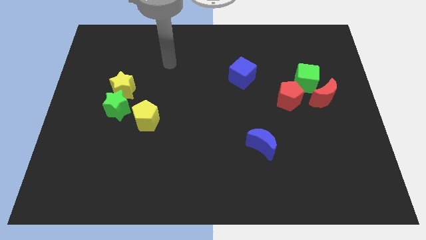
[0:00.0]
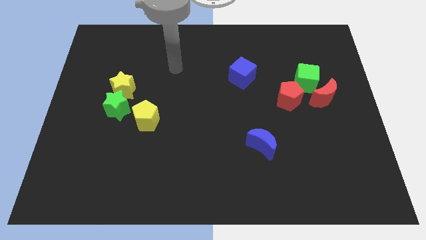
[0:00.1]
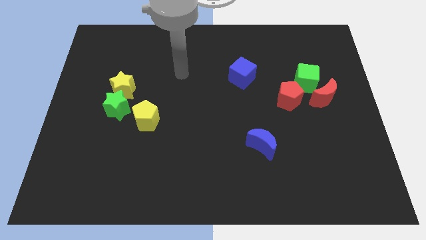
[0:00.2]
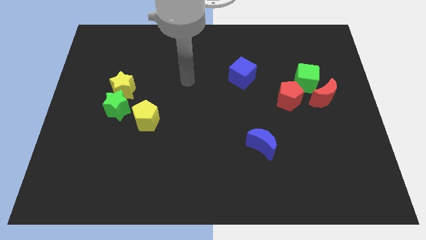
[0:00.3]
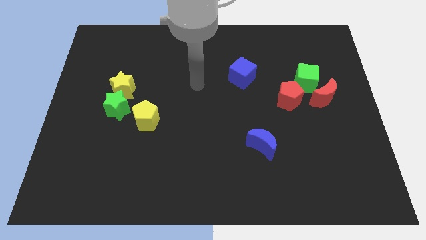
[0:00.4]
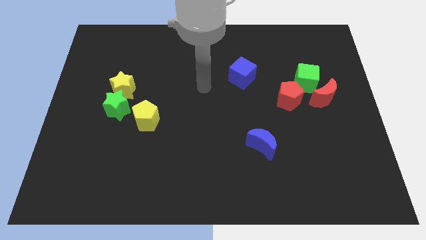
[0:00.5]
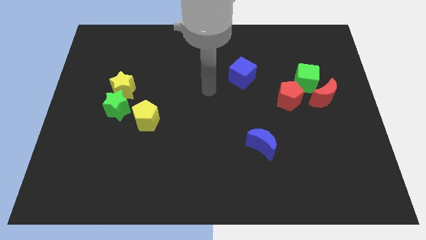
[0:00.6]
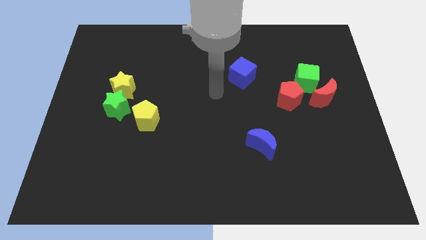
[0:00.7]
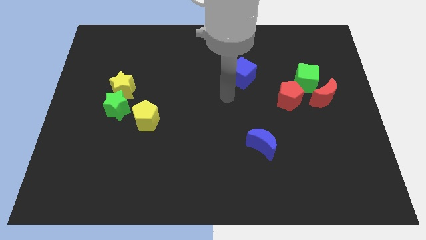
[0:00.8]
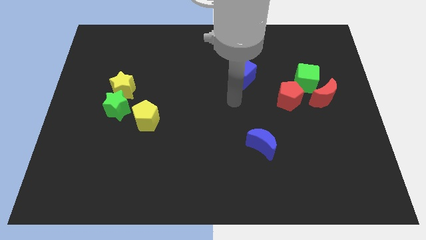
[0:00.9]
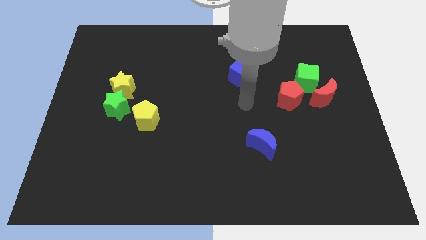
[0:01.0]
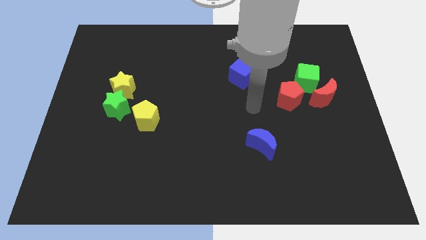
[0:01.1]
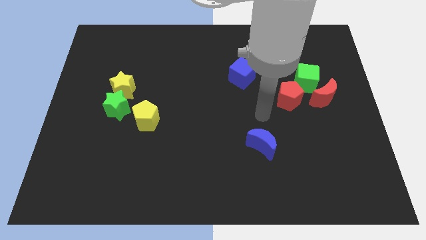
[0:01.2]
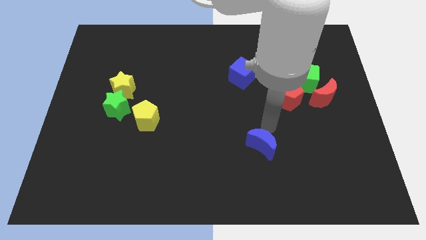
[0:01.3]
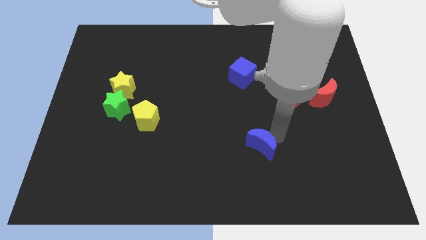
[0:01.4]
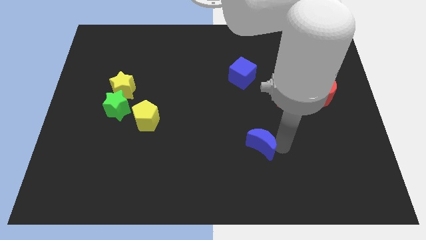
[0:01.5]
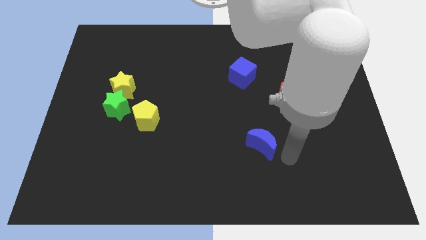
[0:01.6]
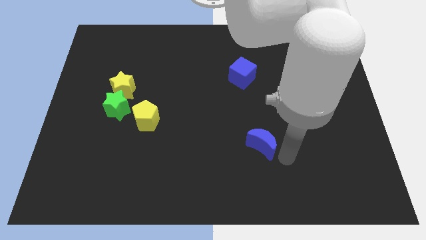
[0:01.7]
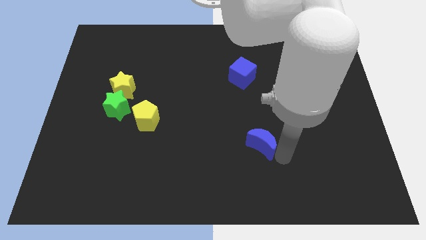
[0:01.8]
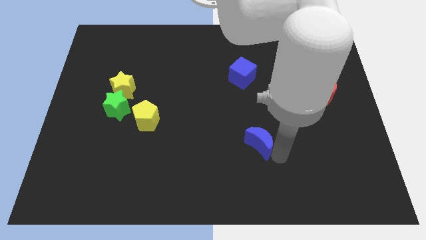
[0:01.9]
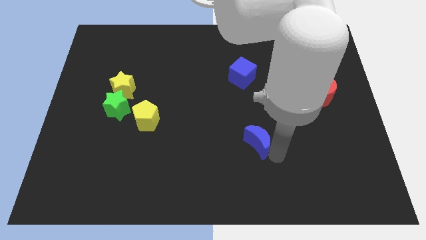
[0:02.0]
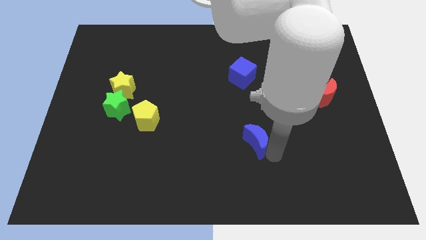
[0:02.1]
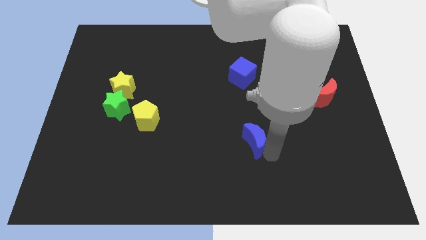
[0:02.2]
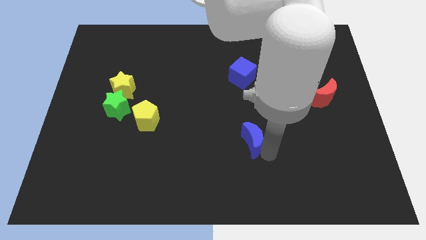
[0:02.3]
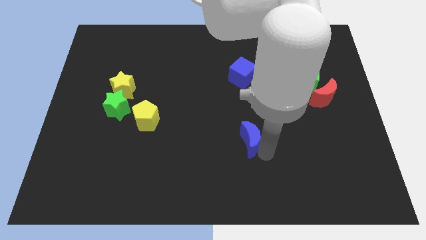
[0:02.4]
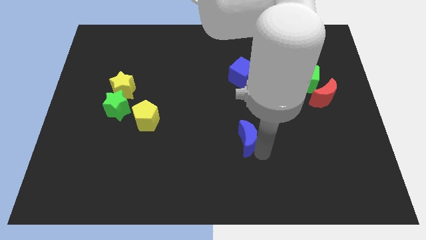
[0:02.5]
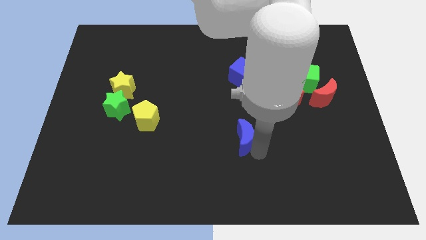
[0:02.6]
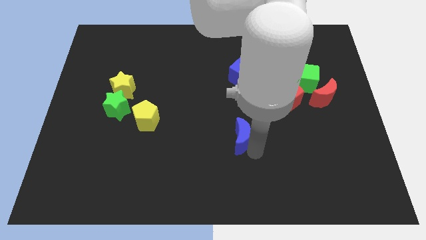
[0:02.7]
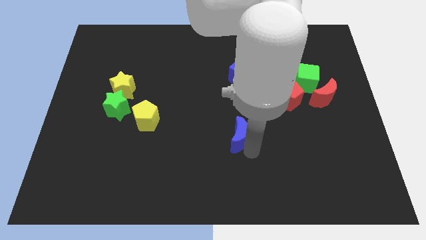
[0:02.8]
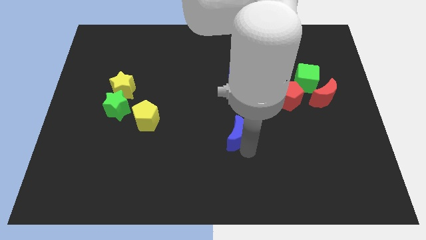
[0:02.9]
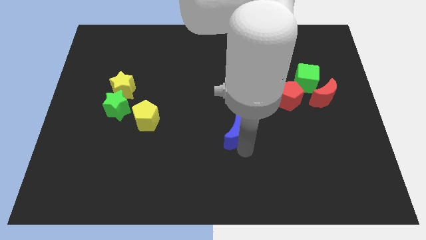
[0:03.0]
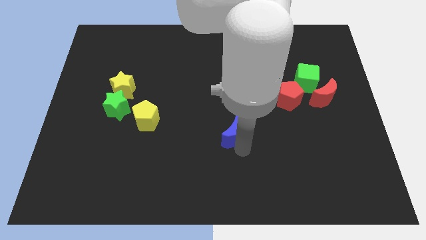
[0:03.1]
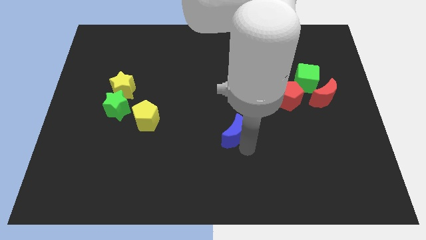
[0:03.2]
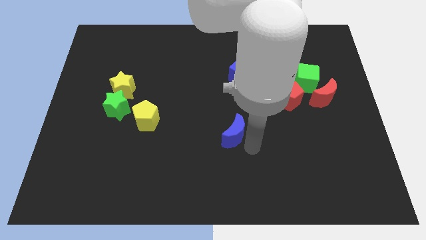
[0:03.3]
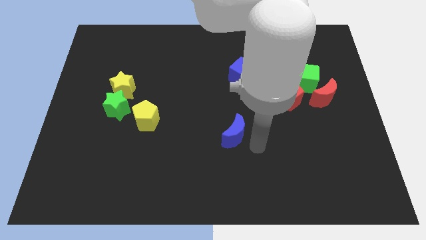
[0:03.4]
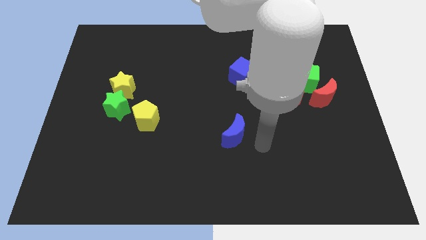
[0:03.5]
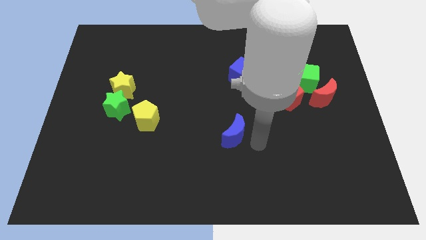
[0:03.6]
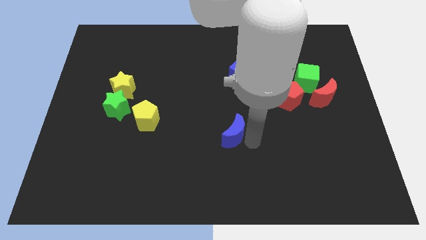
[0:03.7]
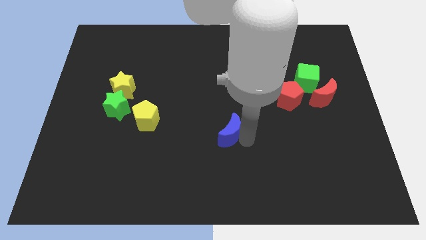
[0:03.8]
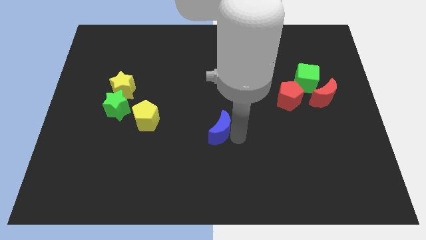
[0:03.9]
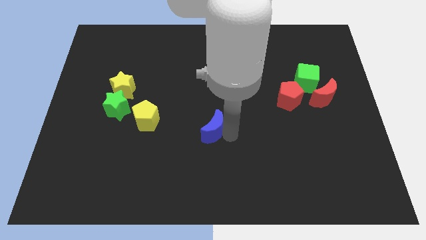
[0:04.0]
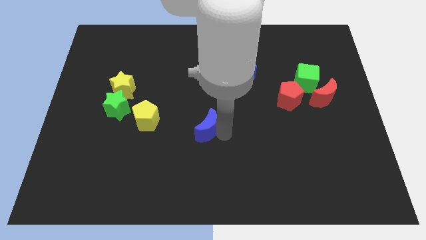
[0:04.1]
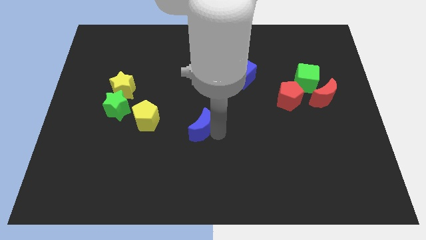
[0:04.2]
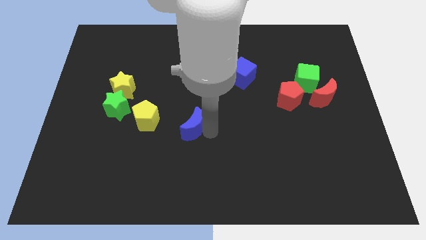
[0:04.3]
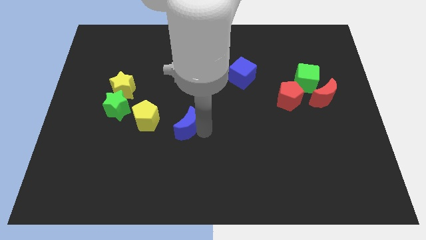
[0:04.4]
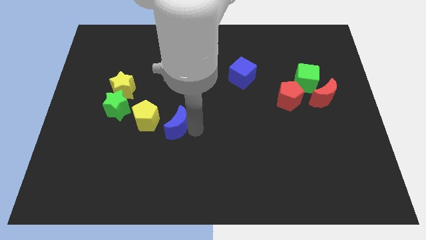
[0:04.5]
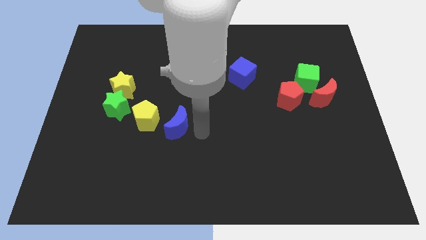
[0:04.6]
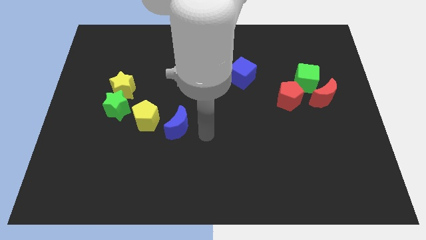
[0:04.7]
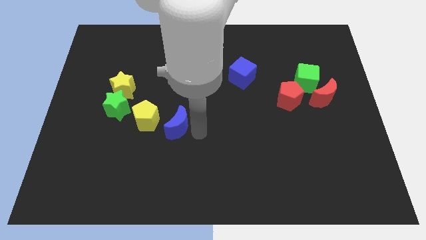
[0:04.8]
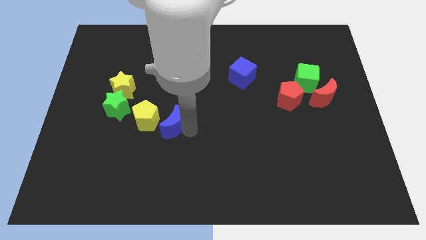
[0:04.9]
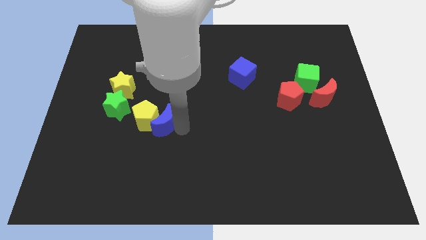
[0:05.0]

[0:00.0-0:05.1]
move the blue moon towards the yellow pentagon

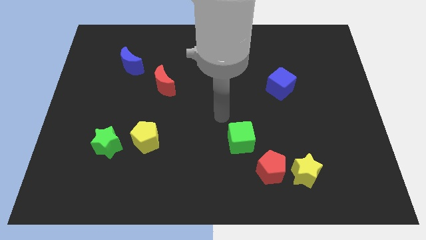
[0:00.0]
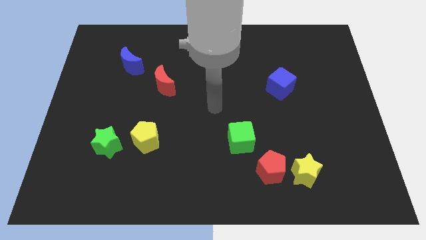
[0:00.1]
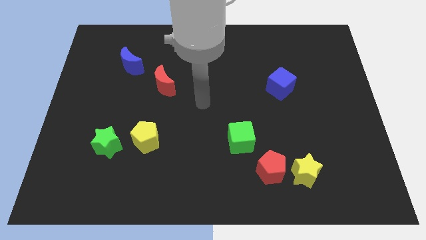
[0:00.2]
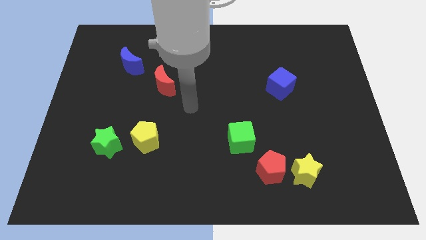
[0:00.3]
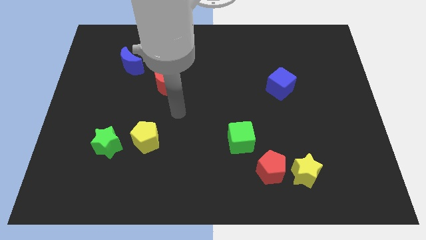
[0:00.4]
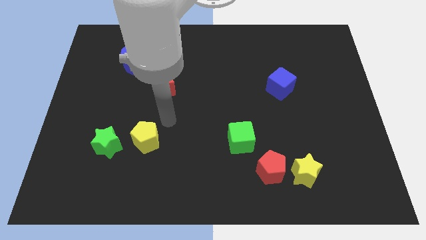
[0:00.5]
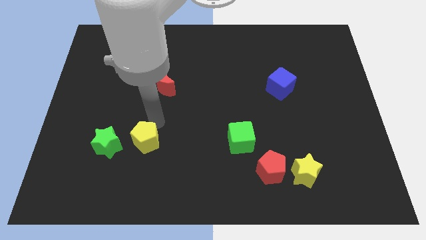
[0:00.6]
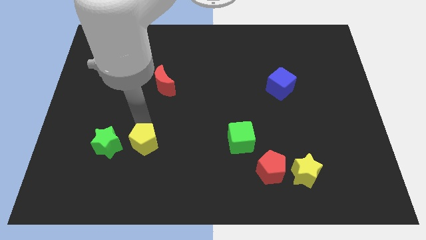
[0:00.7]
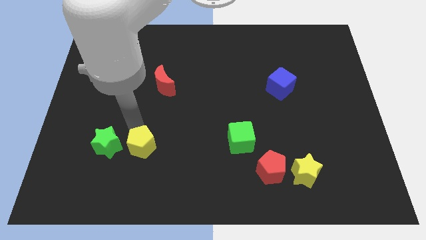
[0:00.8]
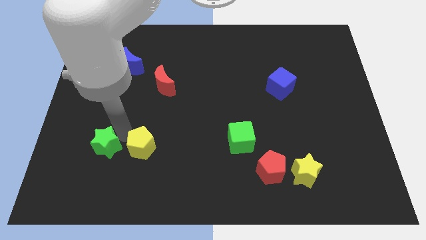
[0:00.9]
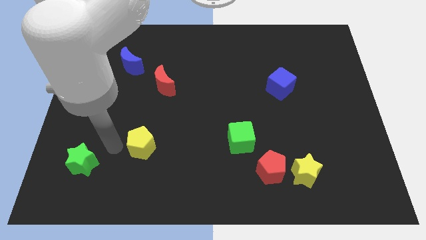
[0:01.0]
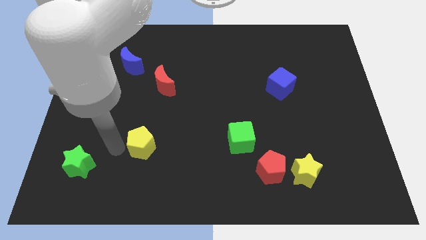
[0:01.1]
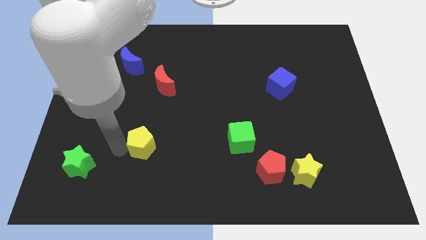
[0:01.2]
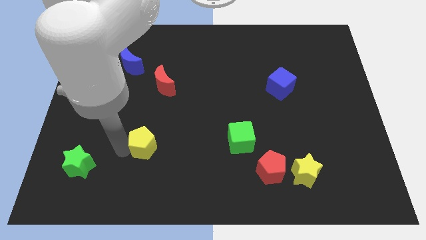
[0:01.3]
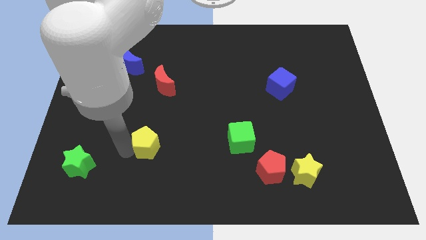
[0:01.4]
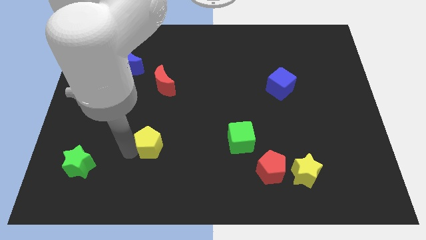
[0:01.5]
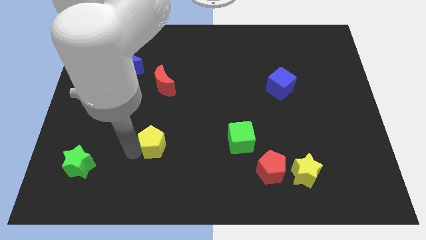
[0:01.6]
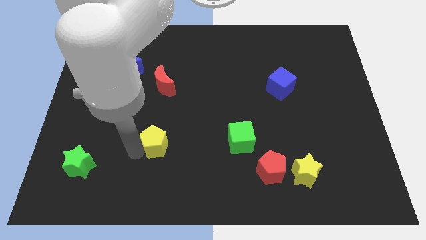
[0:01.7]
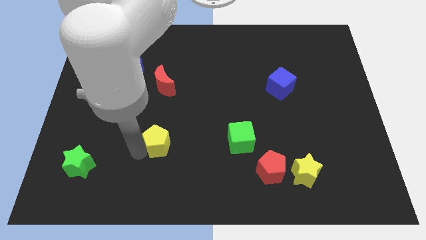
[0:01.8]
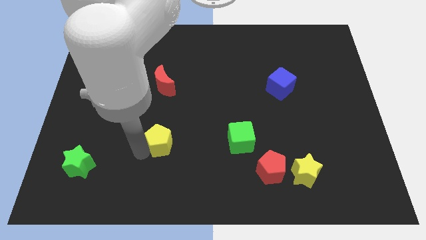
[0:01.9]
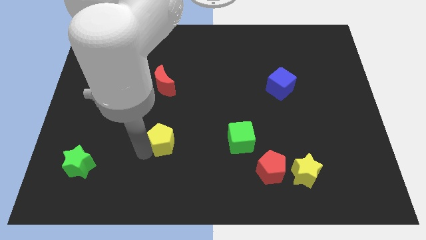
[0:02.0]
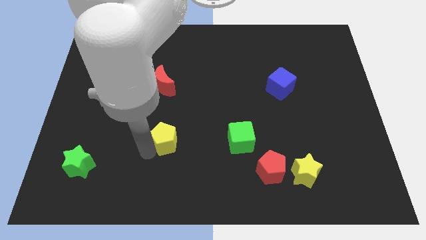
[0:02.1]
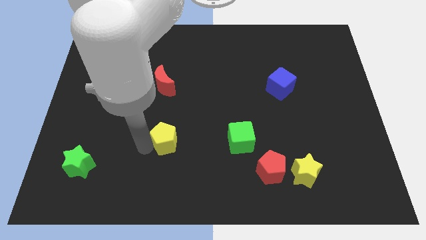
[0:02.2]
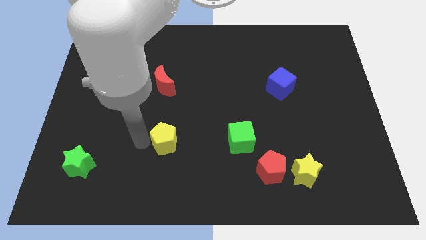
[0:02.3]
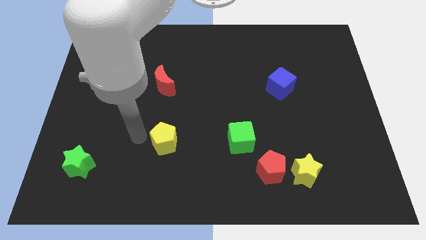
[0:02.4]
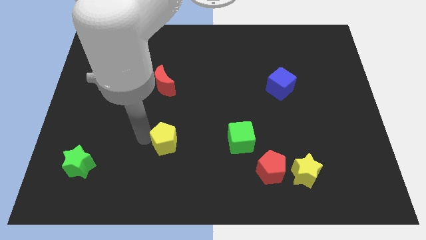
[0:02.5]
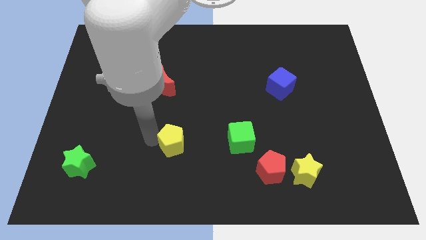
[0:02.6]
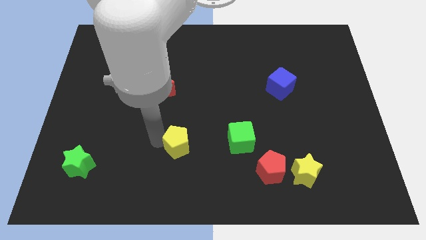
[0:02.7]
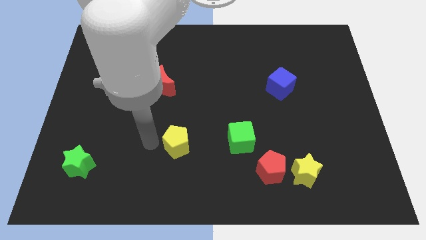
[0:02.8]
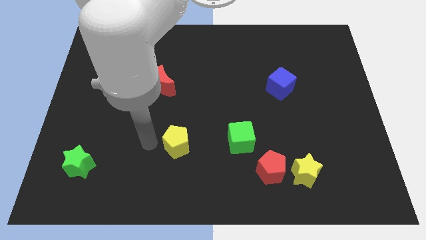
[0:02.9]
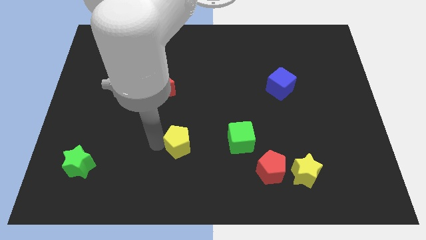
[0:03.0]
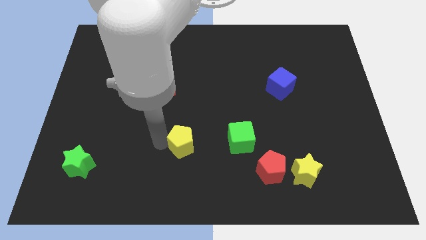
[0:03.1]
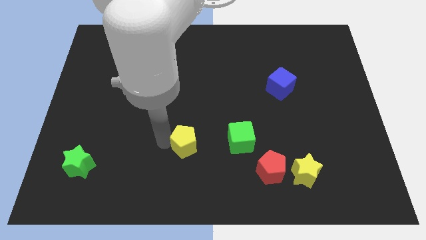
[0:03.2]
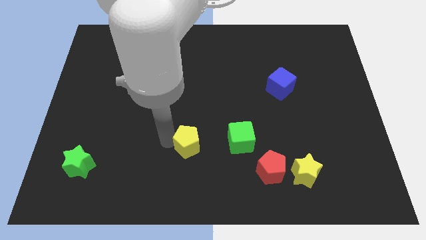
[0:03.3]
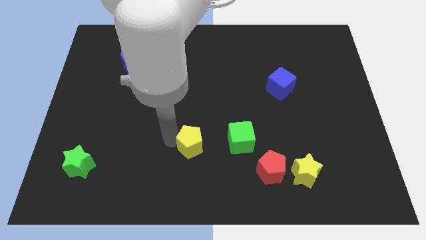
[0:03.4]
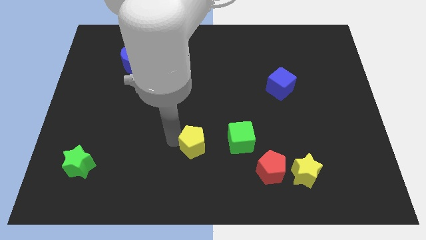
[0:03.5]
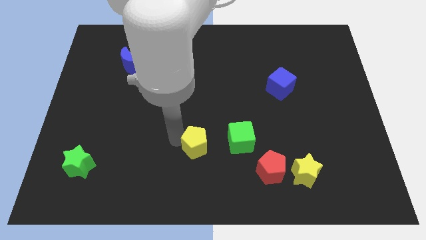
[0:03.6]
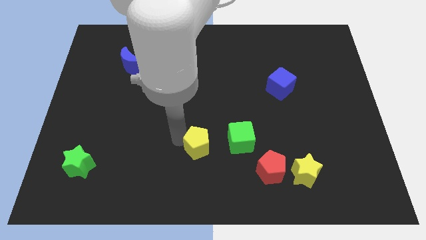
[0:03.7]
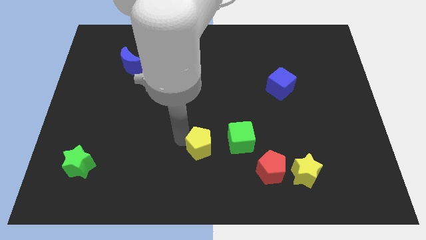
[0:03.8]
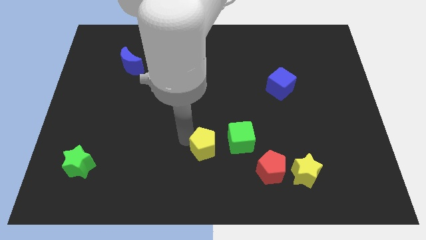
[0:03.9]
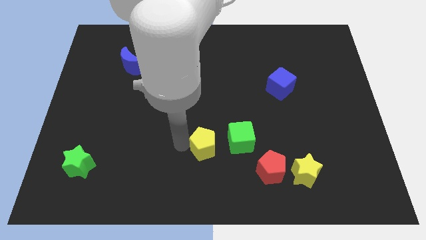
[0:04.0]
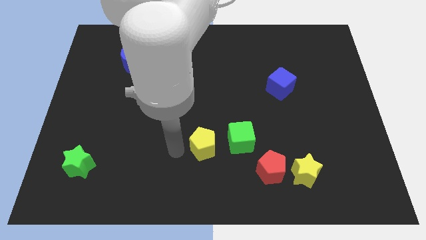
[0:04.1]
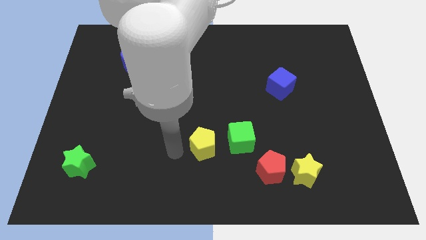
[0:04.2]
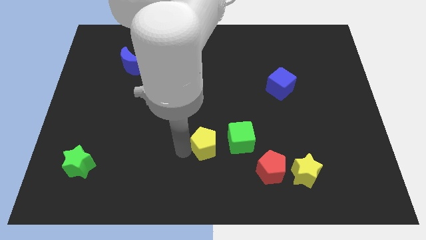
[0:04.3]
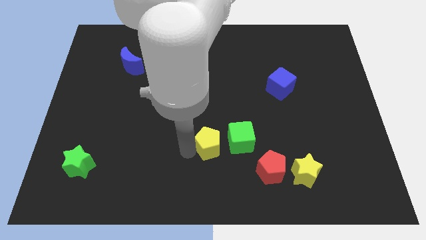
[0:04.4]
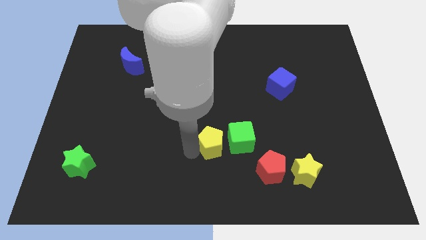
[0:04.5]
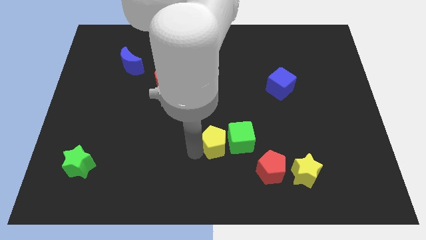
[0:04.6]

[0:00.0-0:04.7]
put the yellow pentagon next to the green cube
